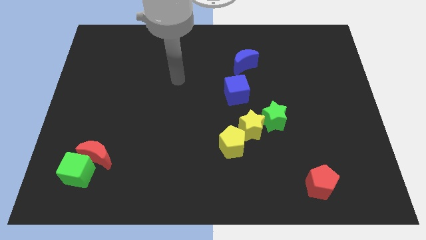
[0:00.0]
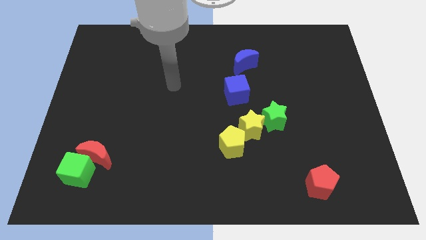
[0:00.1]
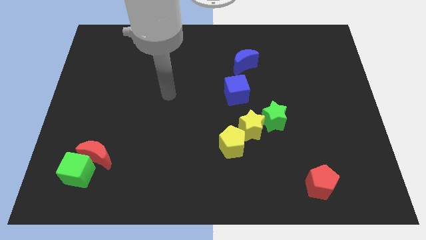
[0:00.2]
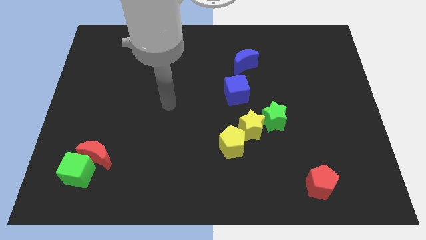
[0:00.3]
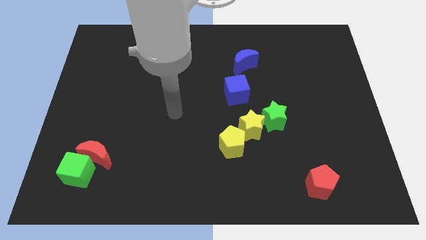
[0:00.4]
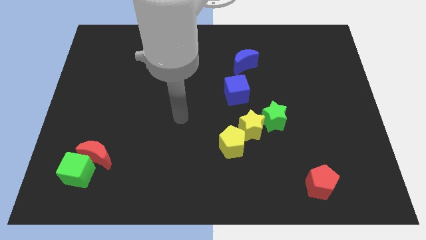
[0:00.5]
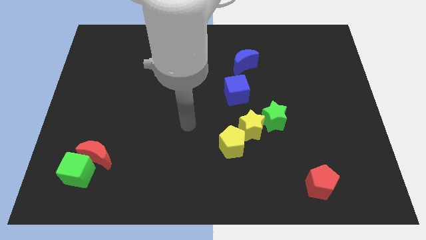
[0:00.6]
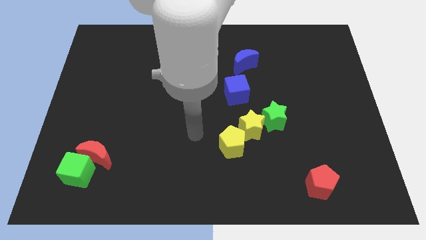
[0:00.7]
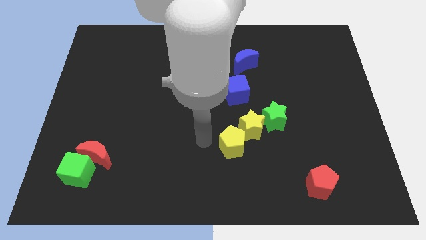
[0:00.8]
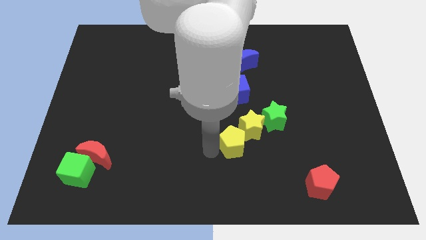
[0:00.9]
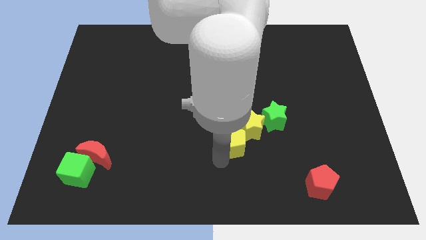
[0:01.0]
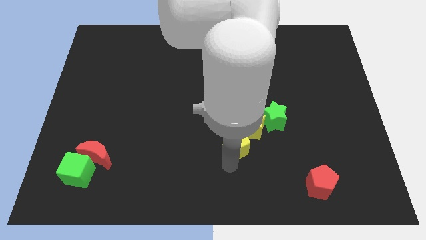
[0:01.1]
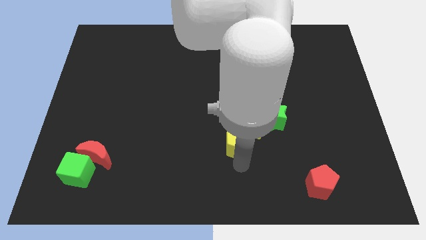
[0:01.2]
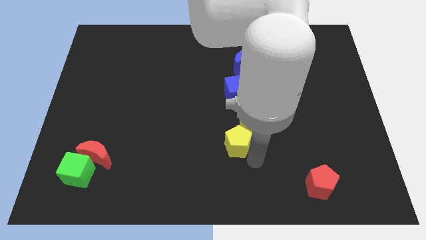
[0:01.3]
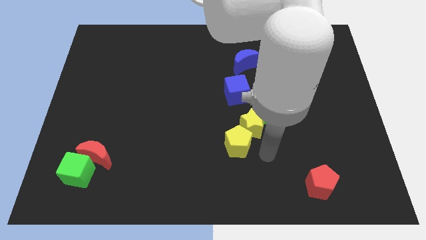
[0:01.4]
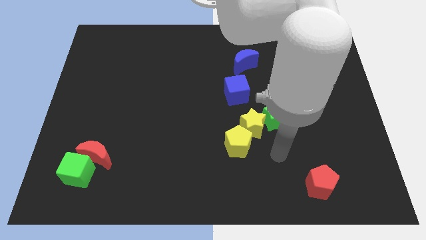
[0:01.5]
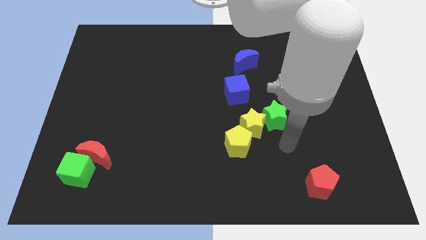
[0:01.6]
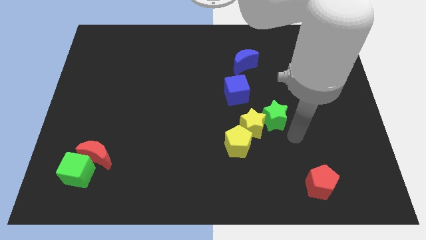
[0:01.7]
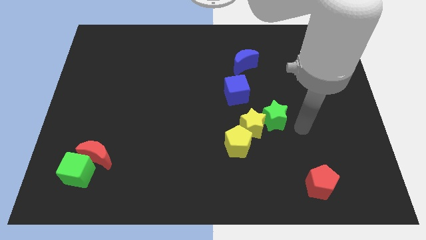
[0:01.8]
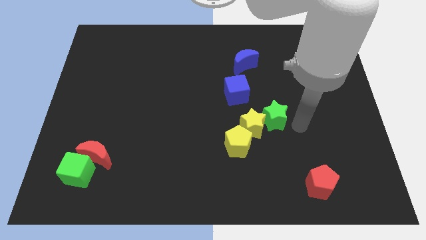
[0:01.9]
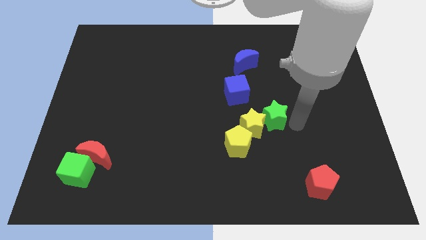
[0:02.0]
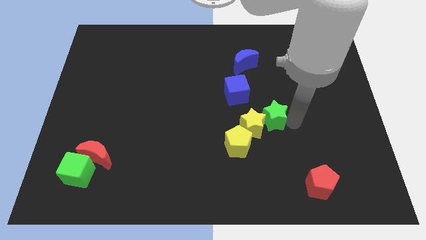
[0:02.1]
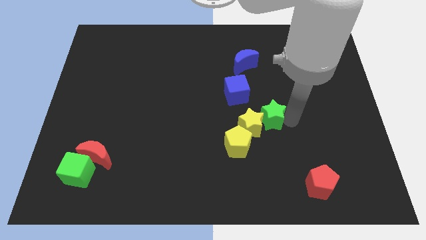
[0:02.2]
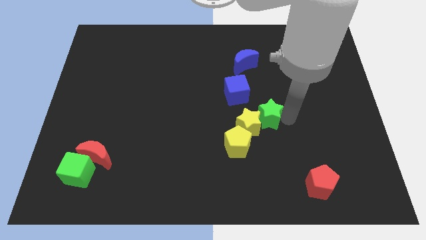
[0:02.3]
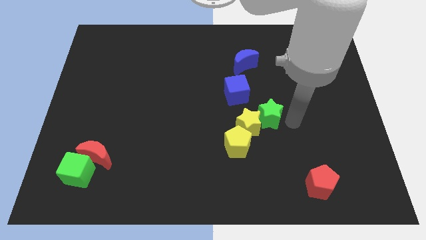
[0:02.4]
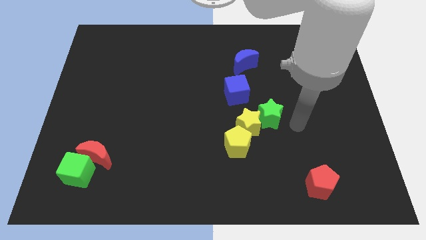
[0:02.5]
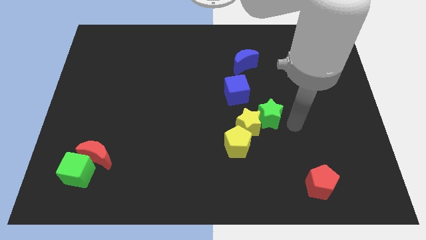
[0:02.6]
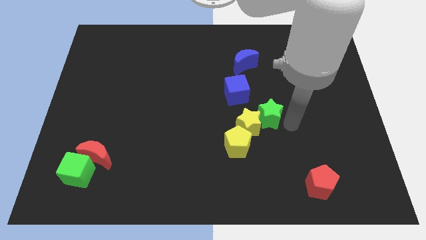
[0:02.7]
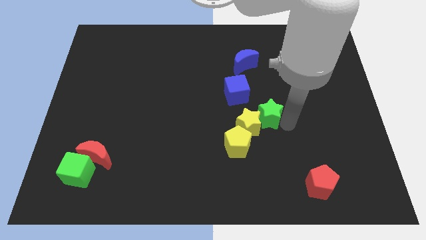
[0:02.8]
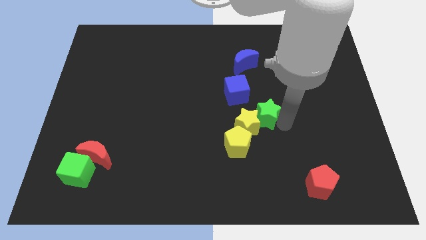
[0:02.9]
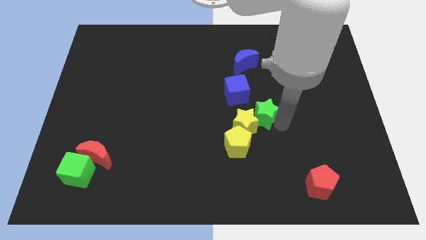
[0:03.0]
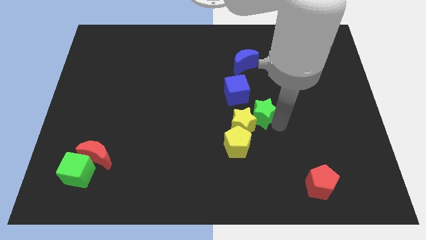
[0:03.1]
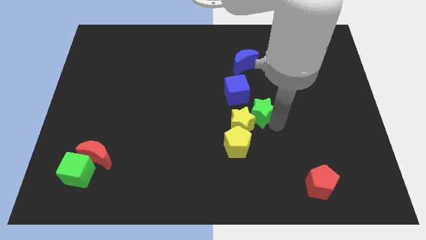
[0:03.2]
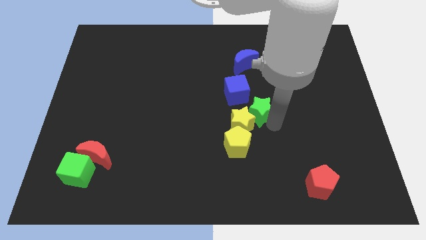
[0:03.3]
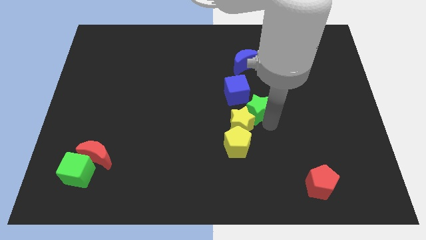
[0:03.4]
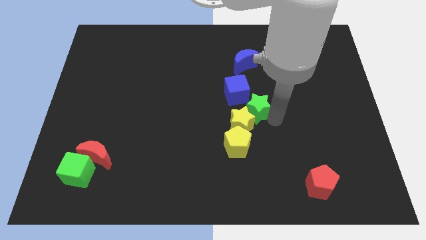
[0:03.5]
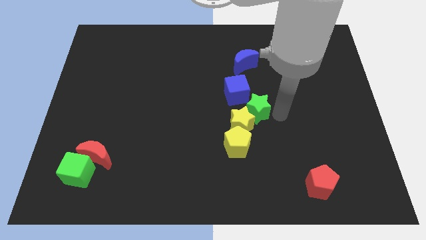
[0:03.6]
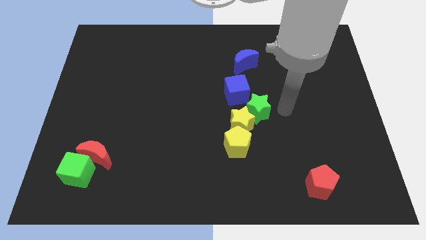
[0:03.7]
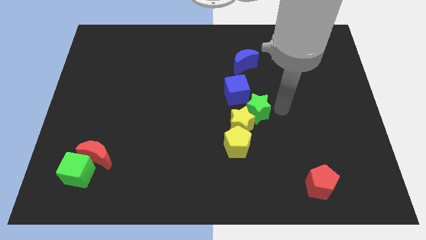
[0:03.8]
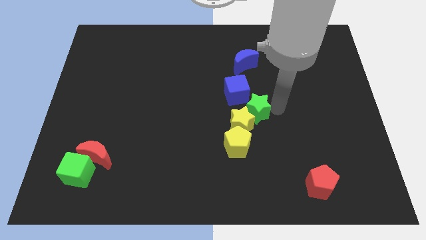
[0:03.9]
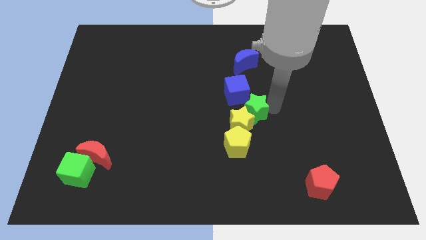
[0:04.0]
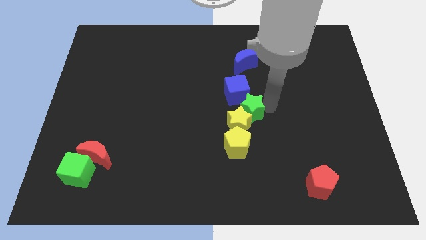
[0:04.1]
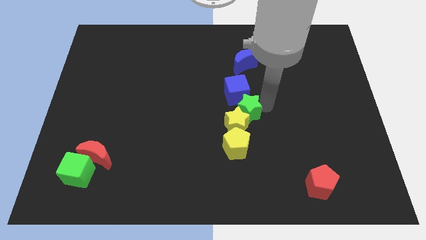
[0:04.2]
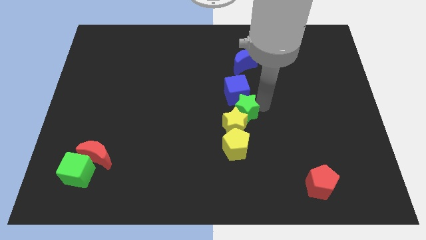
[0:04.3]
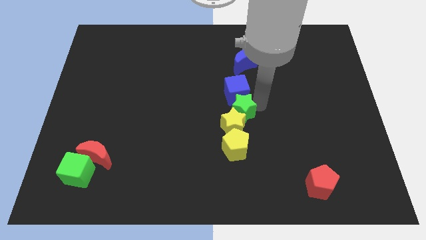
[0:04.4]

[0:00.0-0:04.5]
slightly push the green star left

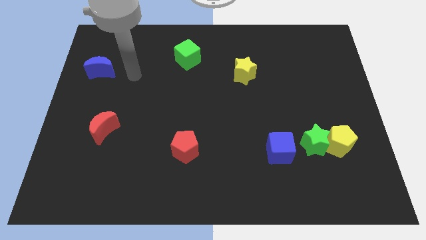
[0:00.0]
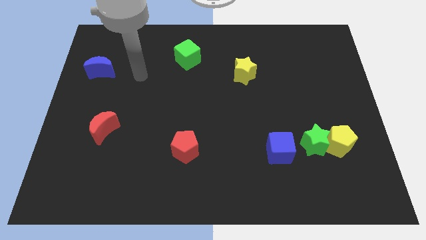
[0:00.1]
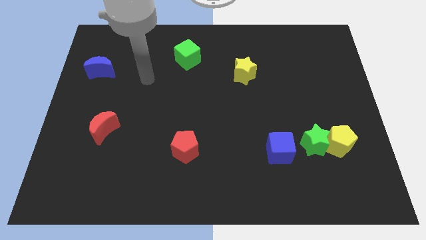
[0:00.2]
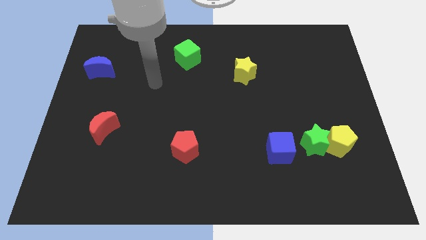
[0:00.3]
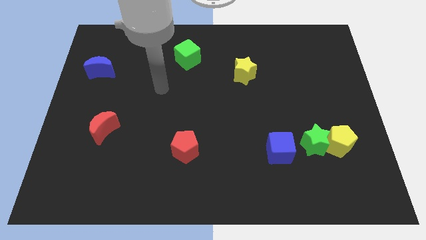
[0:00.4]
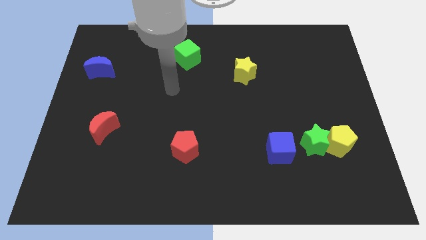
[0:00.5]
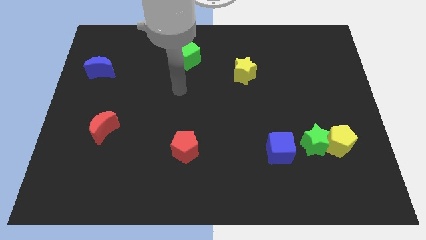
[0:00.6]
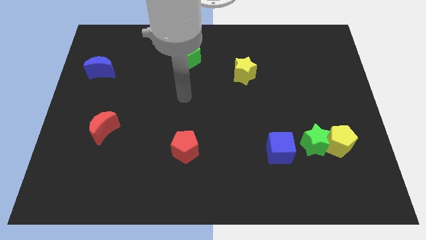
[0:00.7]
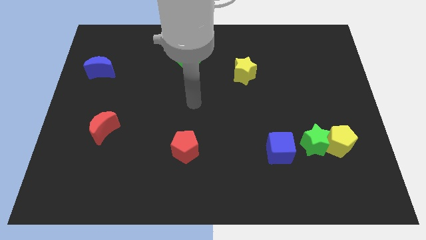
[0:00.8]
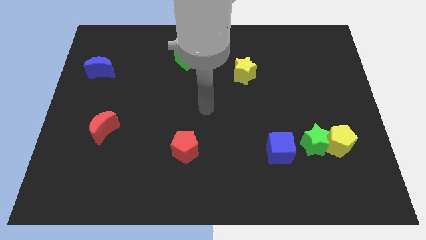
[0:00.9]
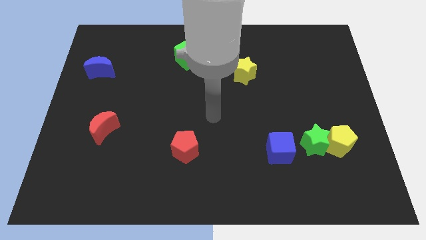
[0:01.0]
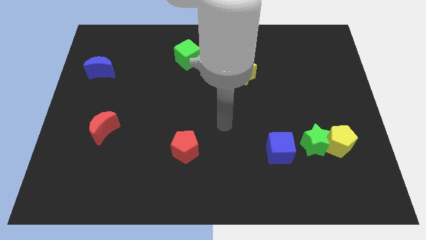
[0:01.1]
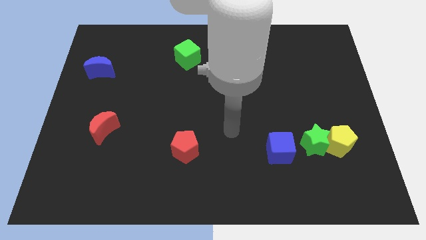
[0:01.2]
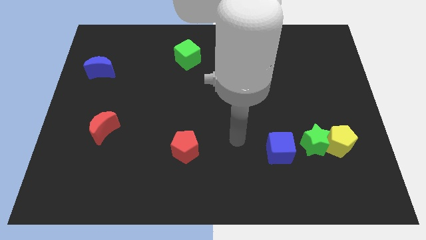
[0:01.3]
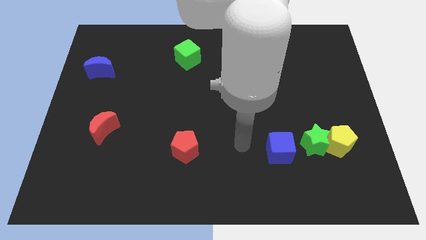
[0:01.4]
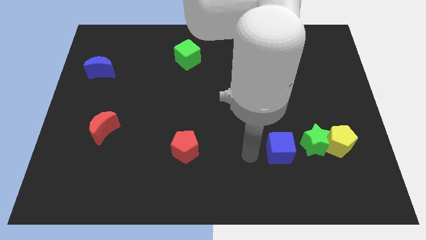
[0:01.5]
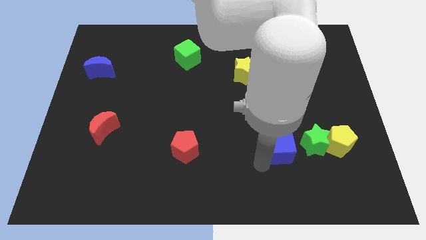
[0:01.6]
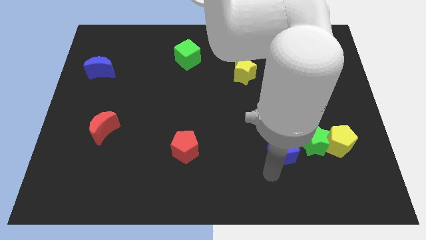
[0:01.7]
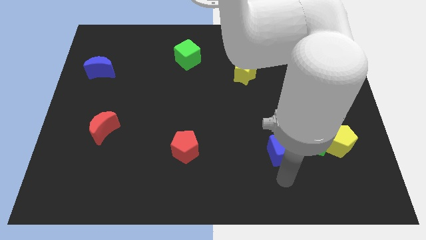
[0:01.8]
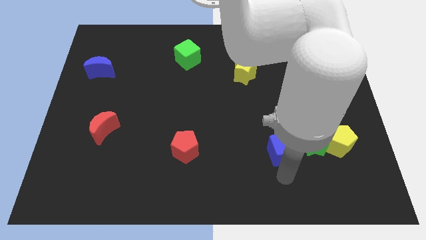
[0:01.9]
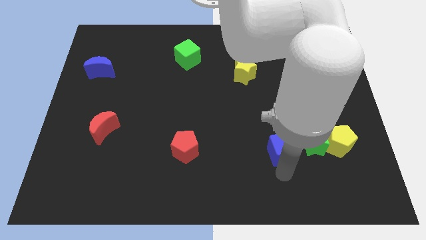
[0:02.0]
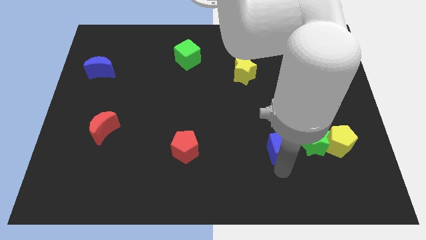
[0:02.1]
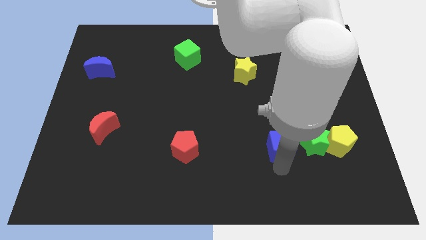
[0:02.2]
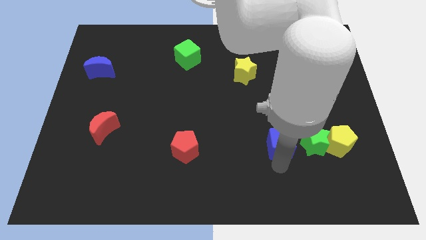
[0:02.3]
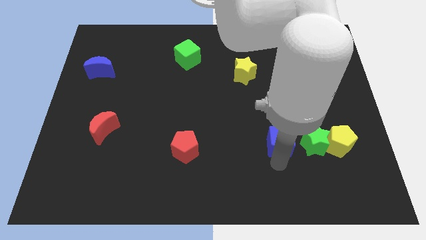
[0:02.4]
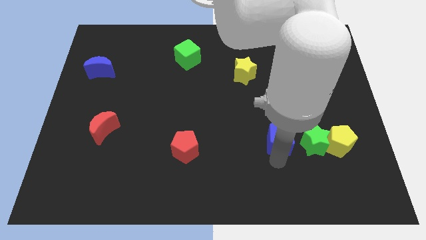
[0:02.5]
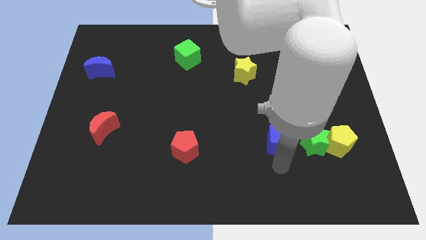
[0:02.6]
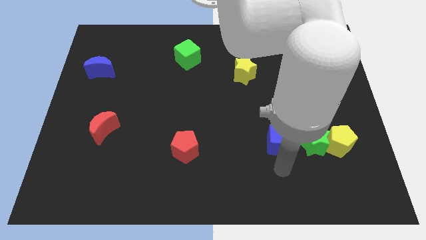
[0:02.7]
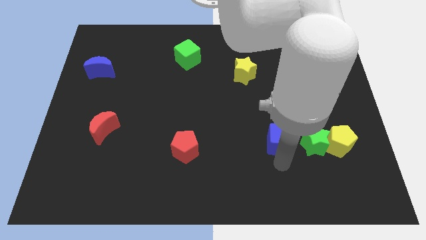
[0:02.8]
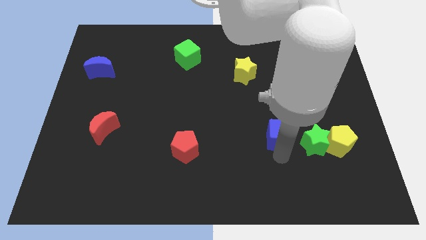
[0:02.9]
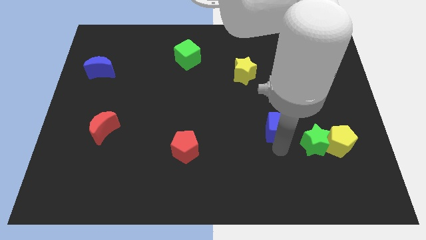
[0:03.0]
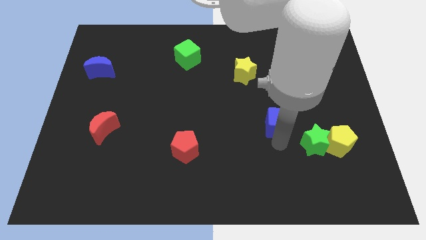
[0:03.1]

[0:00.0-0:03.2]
slightly move the blue cube upwards
